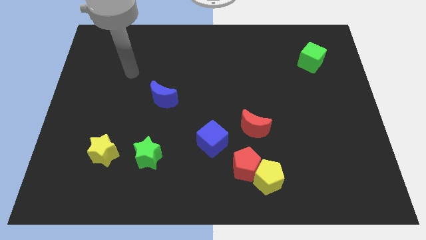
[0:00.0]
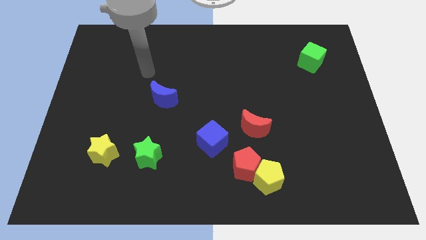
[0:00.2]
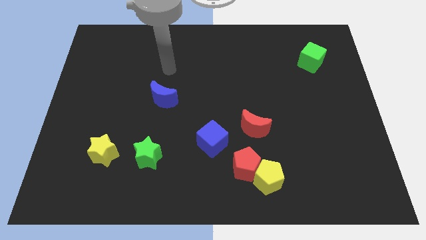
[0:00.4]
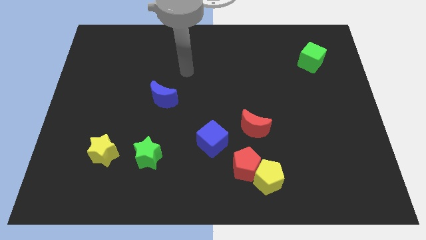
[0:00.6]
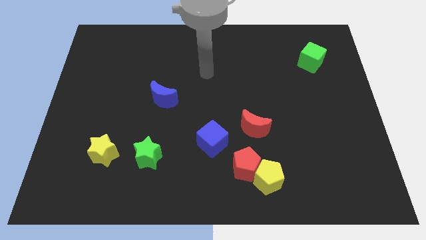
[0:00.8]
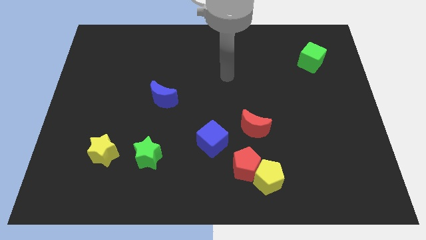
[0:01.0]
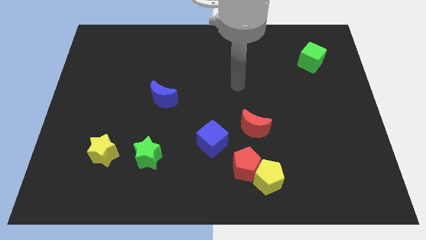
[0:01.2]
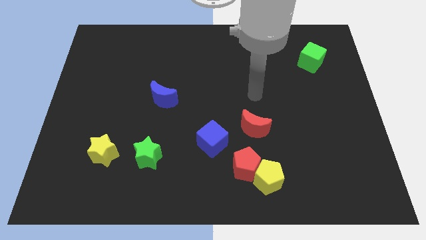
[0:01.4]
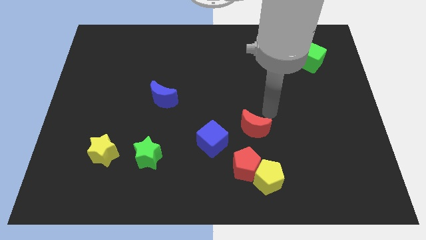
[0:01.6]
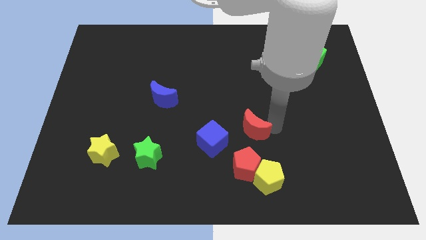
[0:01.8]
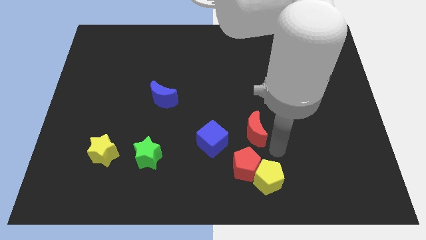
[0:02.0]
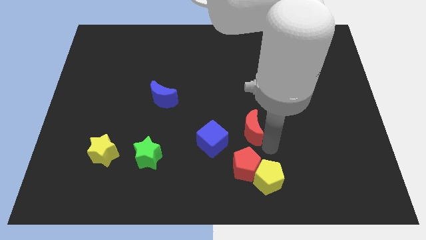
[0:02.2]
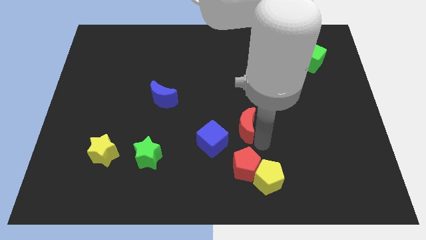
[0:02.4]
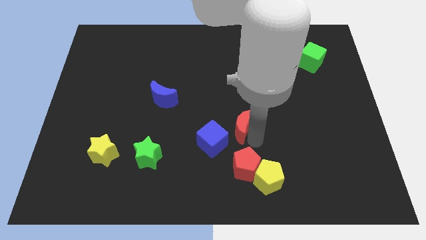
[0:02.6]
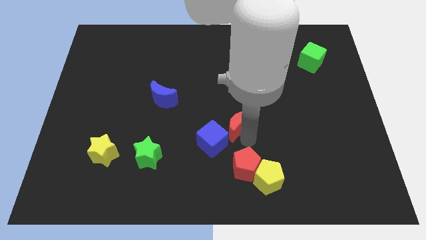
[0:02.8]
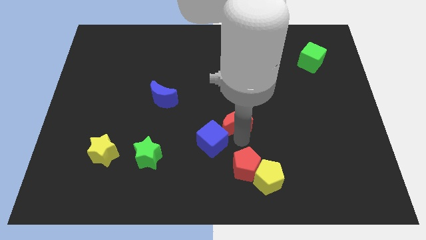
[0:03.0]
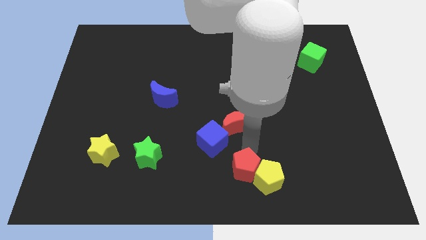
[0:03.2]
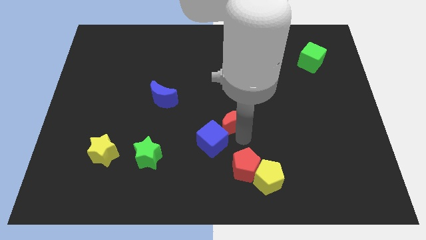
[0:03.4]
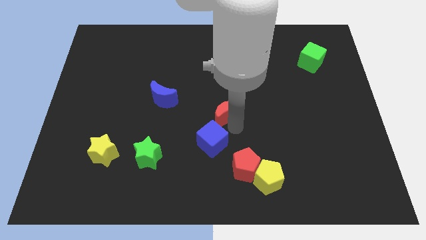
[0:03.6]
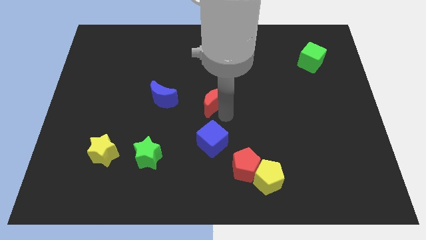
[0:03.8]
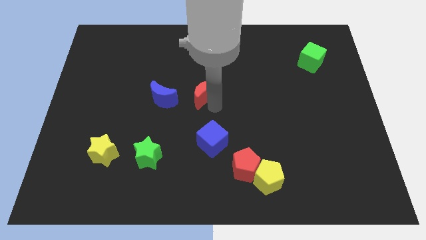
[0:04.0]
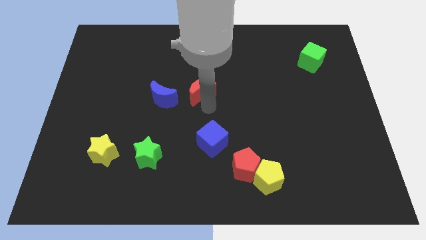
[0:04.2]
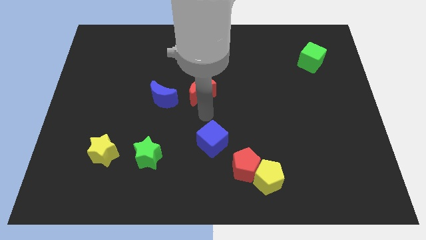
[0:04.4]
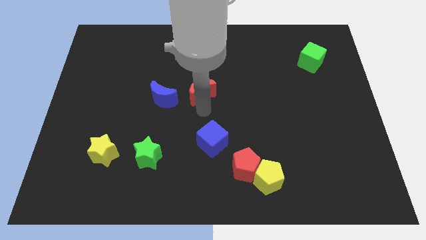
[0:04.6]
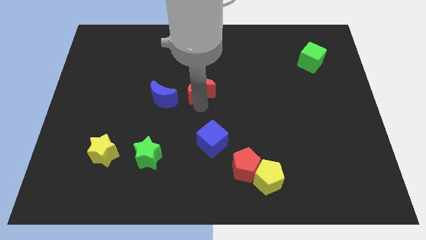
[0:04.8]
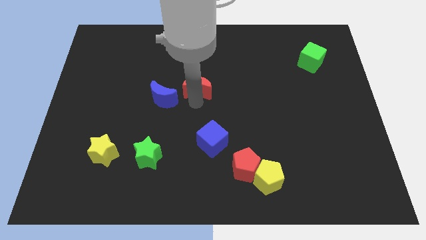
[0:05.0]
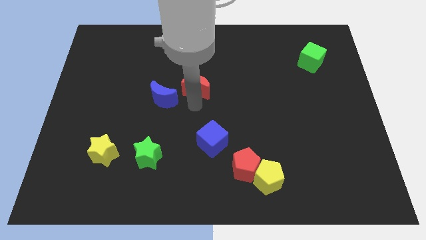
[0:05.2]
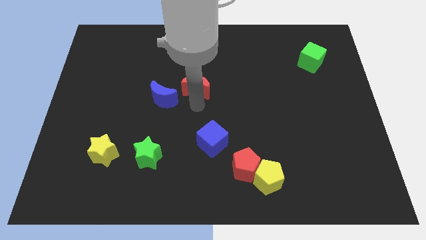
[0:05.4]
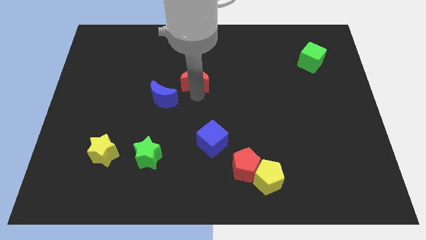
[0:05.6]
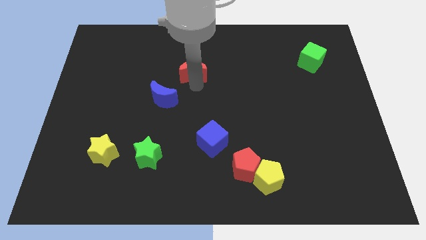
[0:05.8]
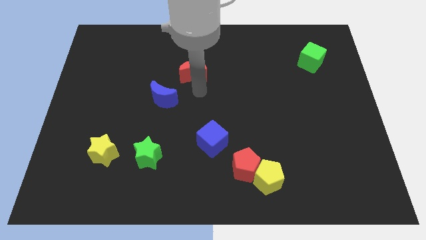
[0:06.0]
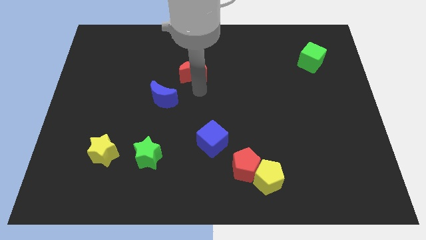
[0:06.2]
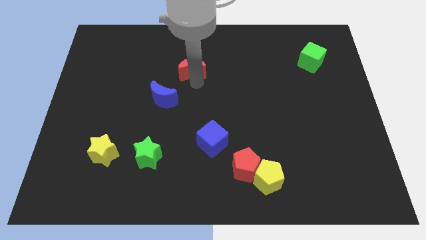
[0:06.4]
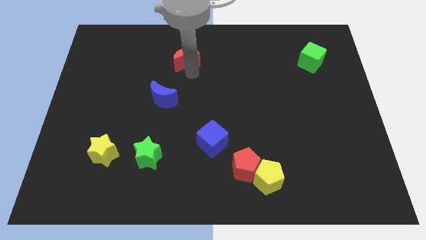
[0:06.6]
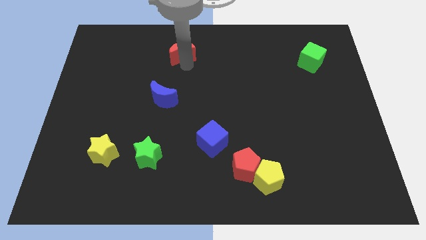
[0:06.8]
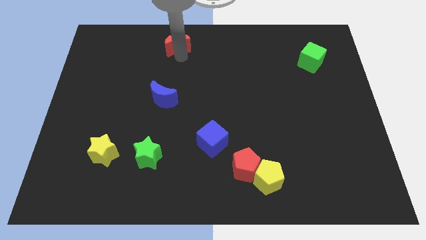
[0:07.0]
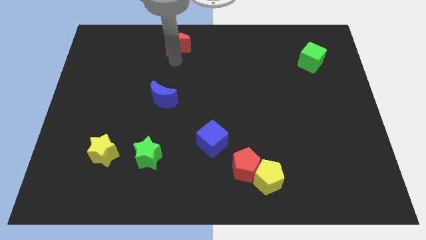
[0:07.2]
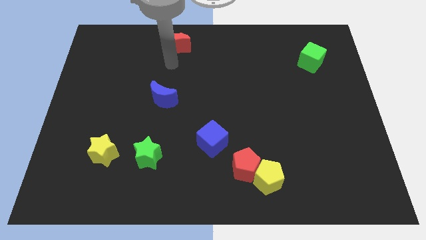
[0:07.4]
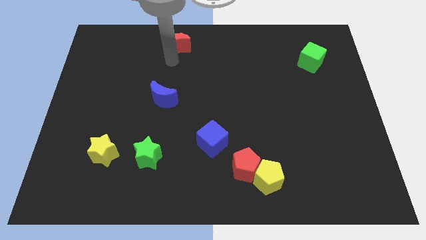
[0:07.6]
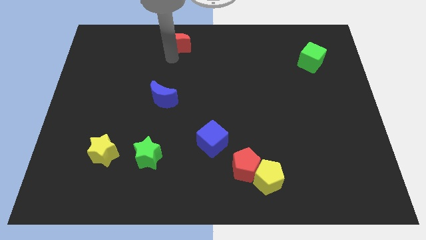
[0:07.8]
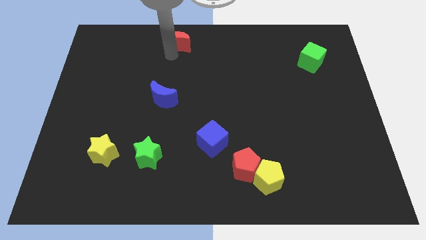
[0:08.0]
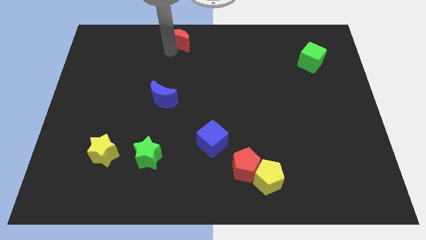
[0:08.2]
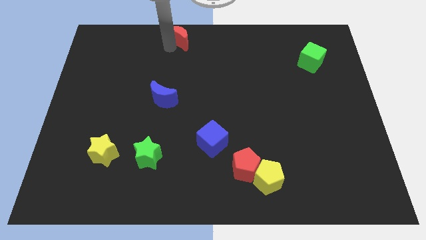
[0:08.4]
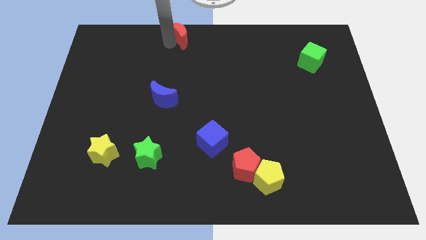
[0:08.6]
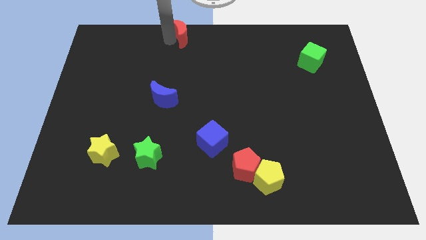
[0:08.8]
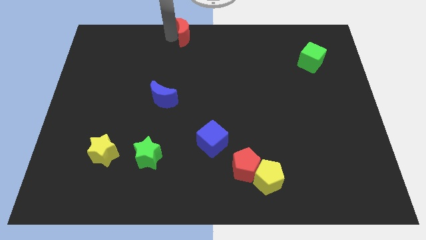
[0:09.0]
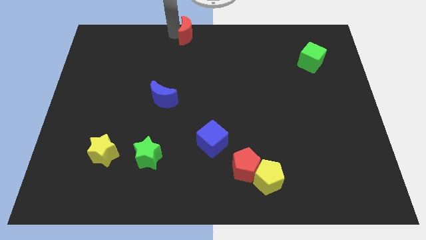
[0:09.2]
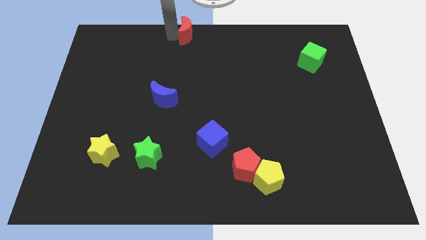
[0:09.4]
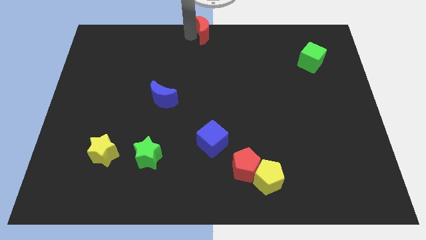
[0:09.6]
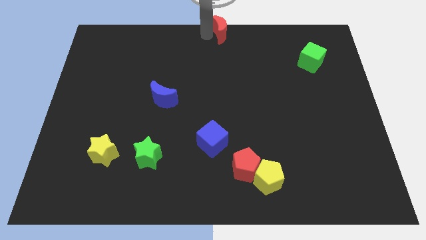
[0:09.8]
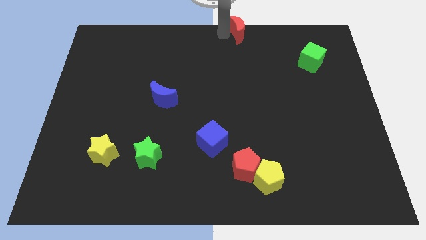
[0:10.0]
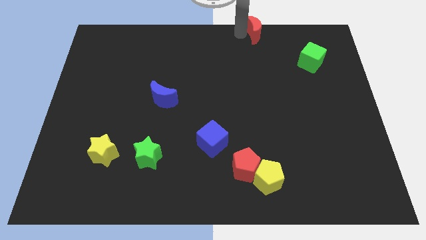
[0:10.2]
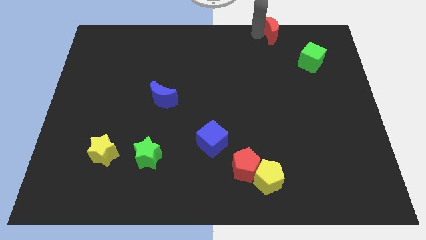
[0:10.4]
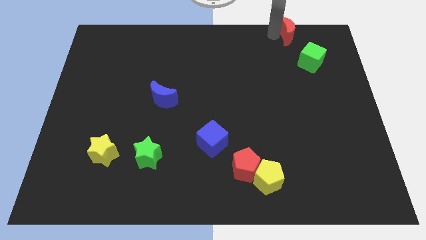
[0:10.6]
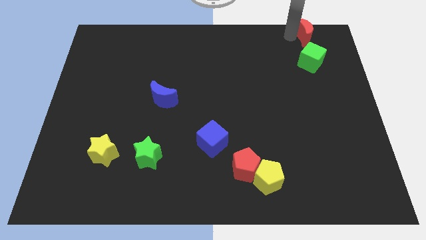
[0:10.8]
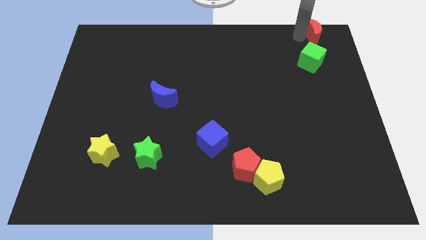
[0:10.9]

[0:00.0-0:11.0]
move the red moon to the top right

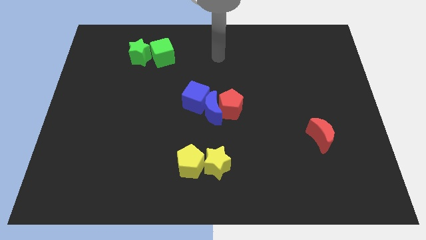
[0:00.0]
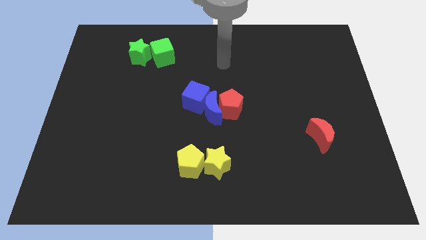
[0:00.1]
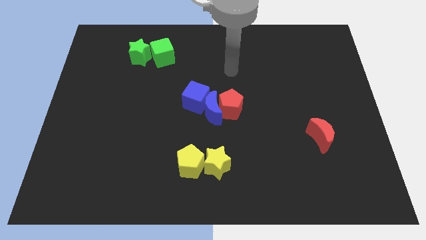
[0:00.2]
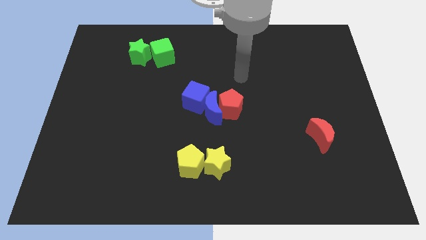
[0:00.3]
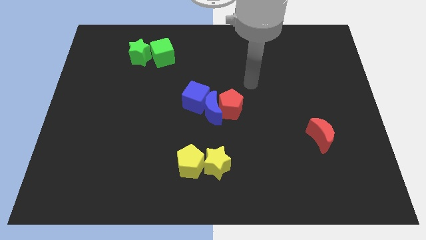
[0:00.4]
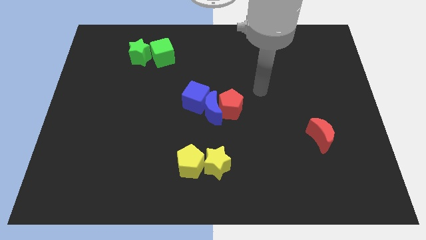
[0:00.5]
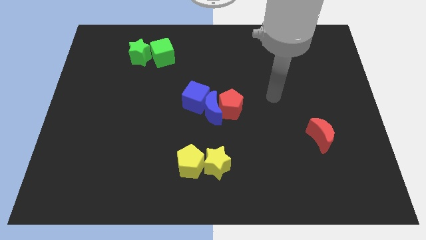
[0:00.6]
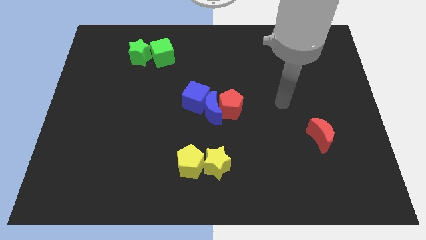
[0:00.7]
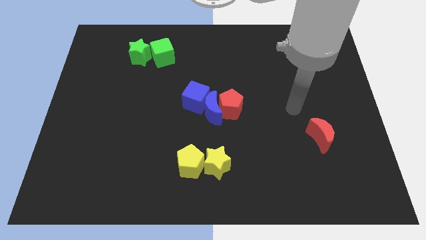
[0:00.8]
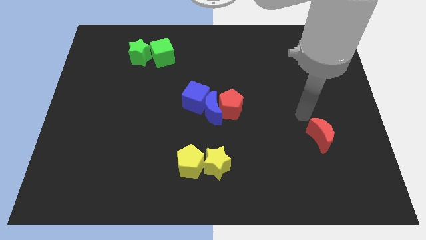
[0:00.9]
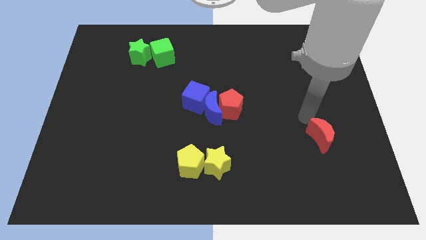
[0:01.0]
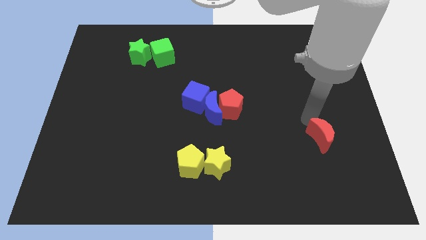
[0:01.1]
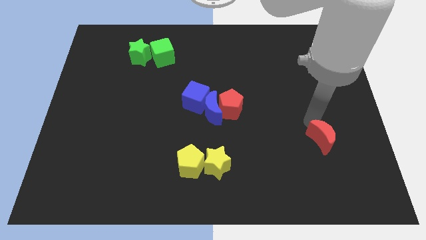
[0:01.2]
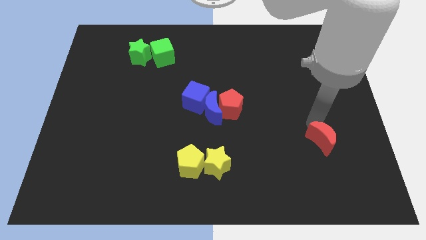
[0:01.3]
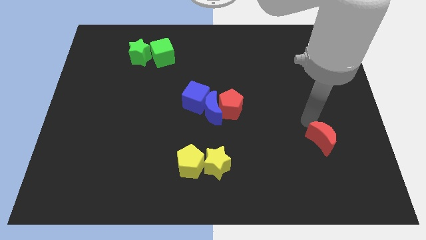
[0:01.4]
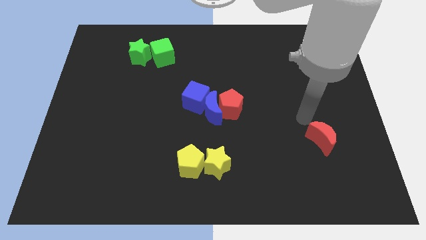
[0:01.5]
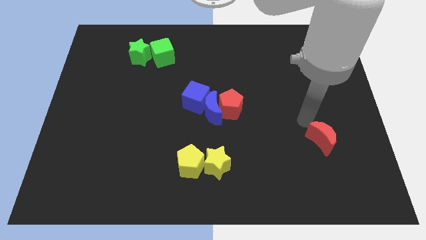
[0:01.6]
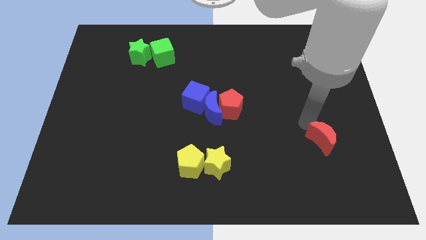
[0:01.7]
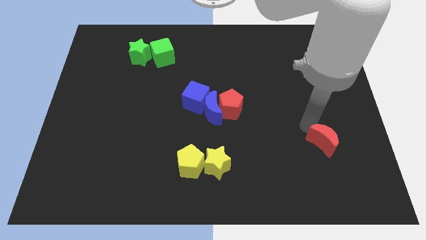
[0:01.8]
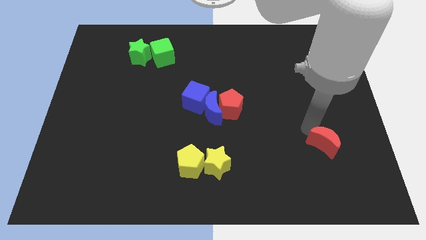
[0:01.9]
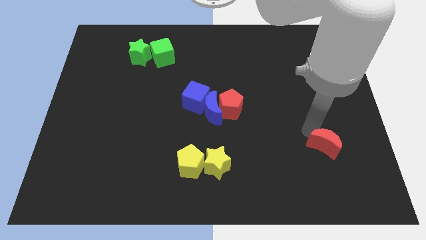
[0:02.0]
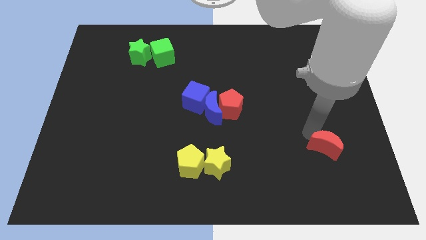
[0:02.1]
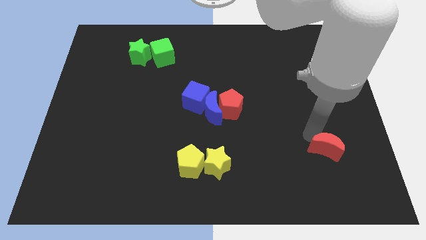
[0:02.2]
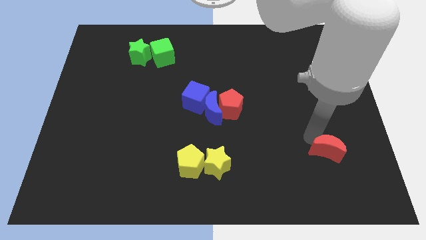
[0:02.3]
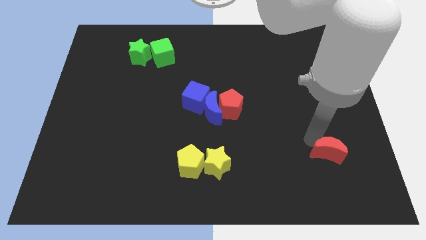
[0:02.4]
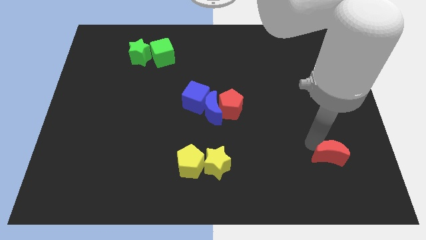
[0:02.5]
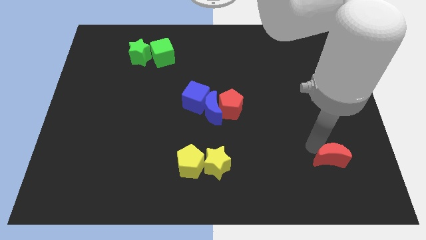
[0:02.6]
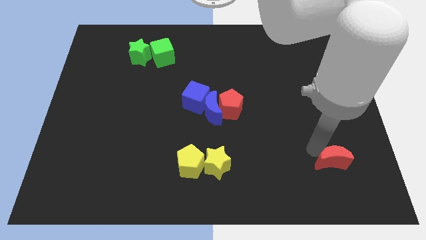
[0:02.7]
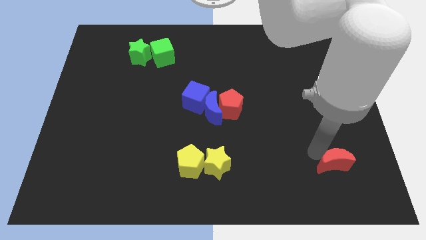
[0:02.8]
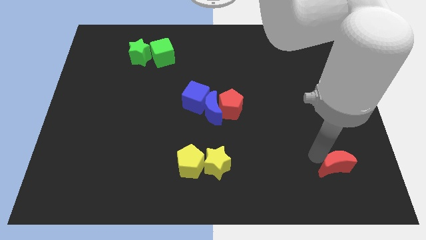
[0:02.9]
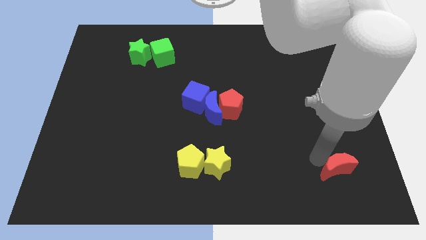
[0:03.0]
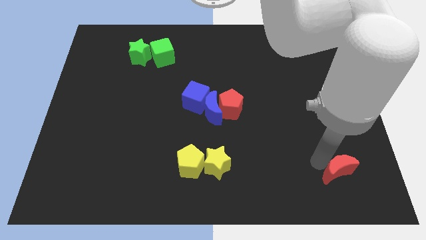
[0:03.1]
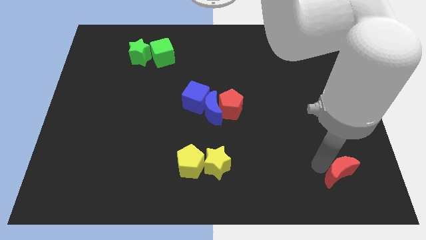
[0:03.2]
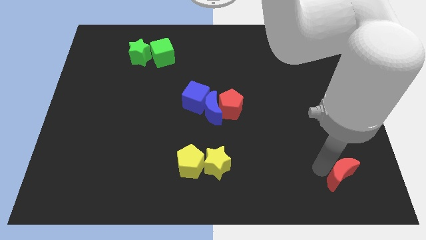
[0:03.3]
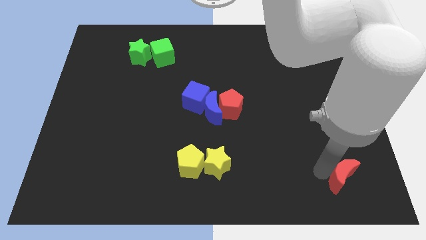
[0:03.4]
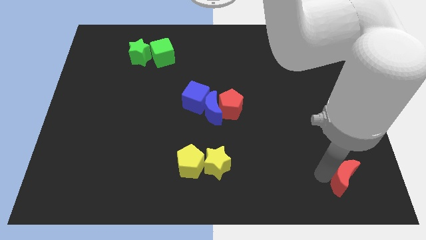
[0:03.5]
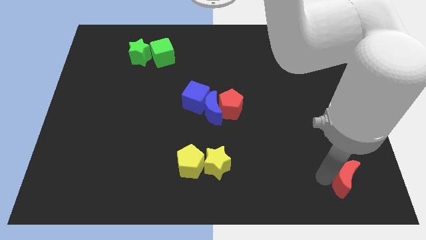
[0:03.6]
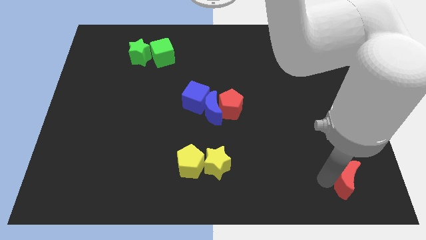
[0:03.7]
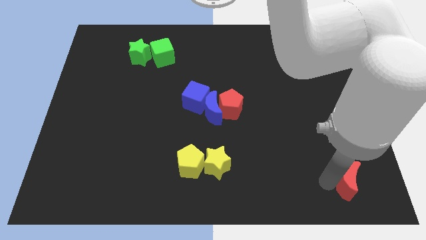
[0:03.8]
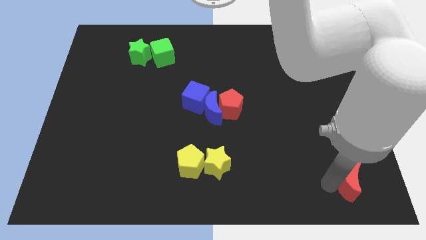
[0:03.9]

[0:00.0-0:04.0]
push the red moon to the lower right corner
